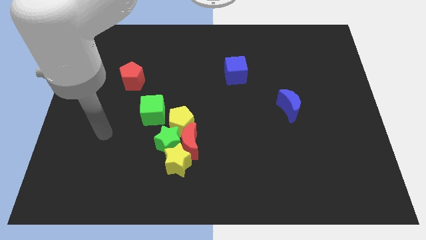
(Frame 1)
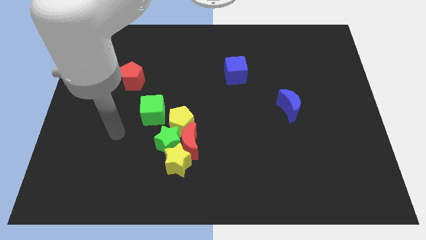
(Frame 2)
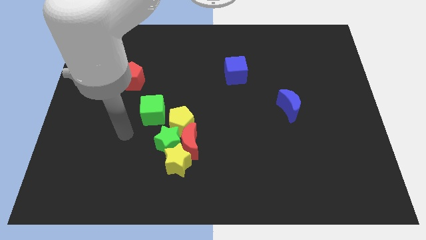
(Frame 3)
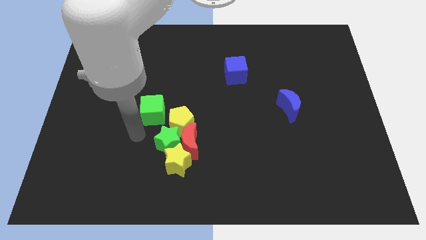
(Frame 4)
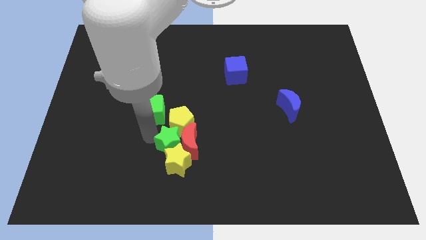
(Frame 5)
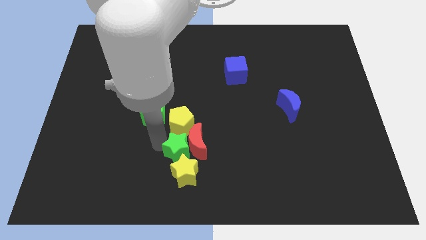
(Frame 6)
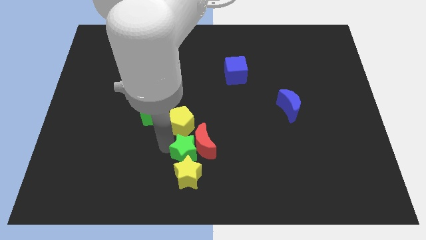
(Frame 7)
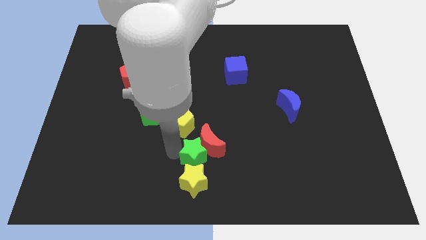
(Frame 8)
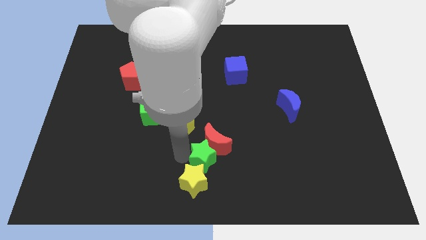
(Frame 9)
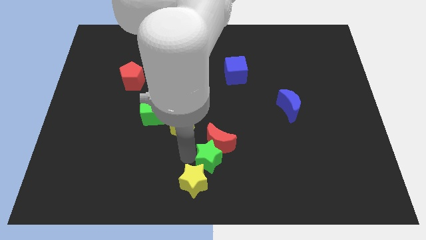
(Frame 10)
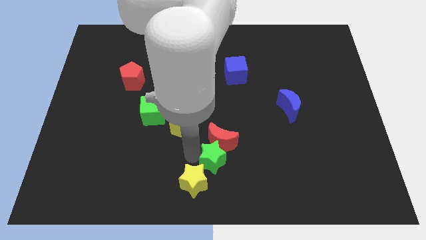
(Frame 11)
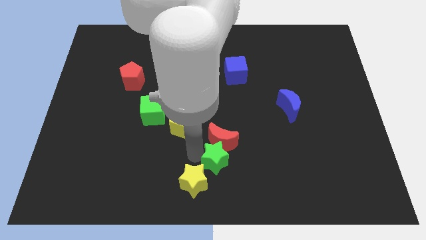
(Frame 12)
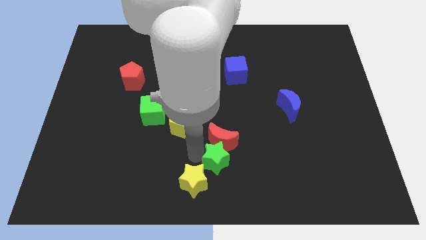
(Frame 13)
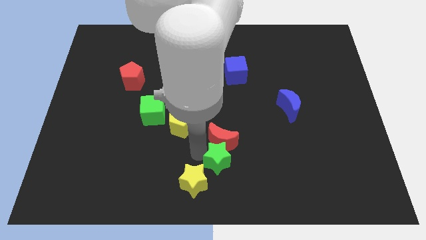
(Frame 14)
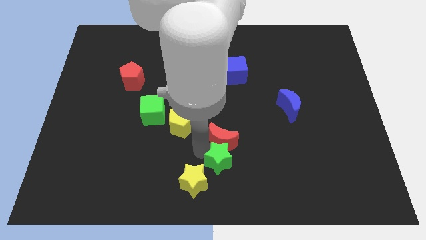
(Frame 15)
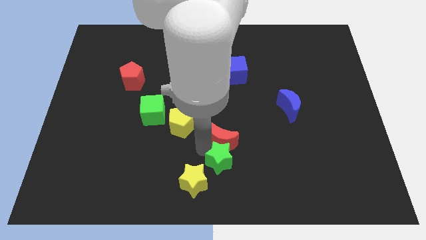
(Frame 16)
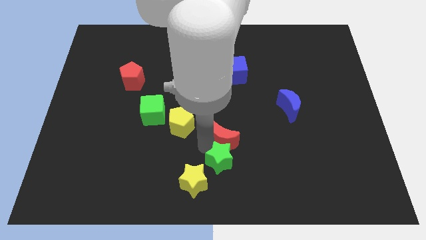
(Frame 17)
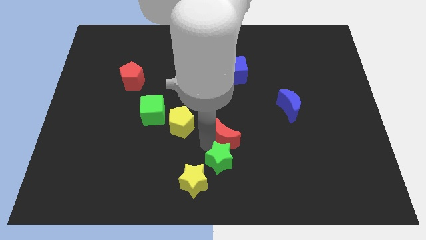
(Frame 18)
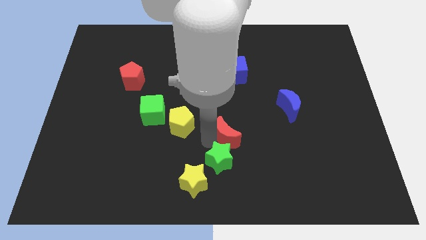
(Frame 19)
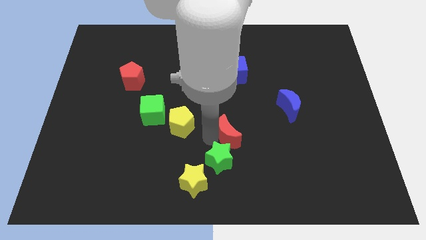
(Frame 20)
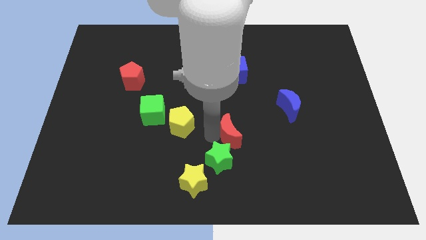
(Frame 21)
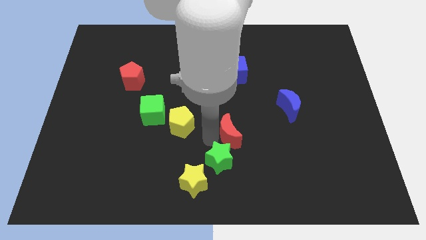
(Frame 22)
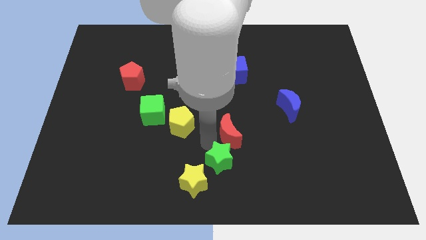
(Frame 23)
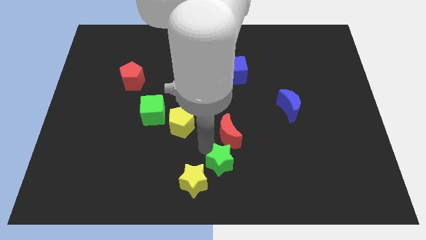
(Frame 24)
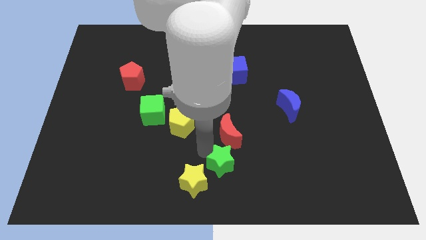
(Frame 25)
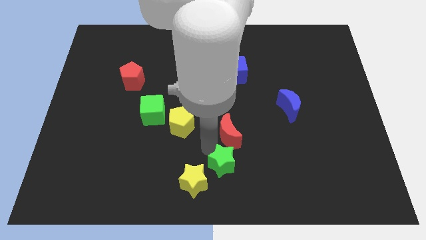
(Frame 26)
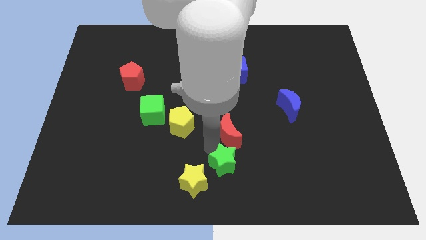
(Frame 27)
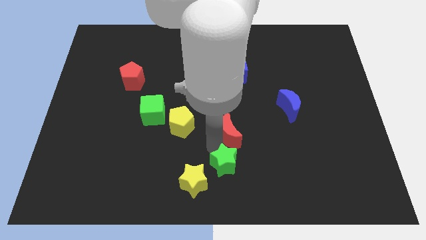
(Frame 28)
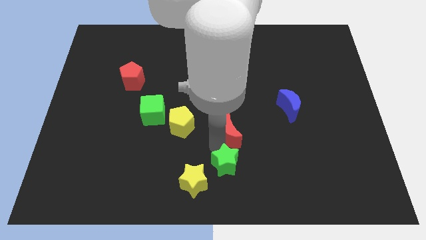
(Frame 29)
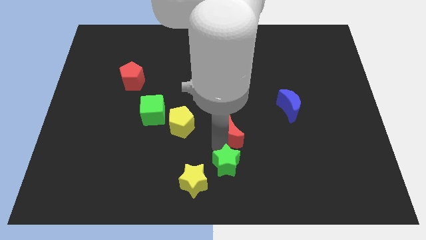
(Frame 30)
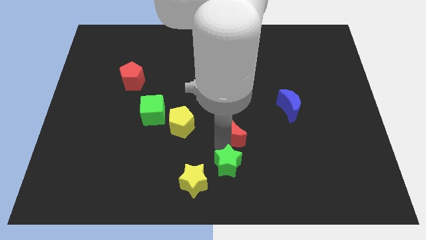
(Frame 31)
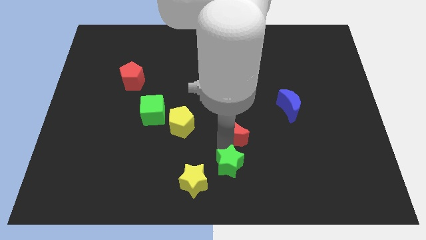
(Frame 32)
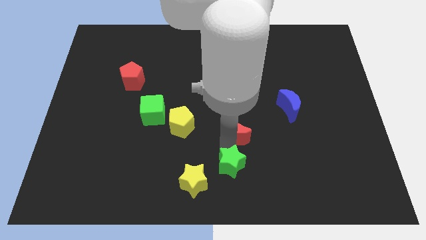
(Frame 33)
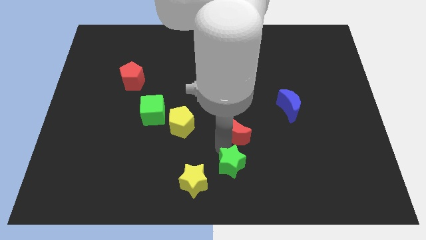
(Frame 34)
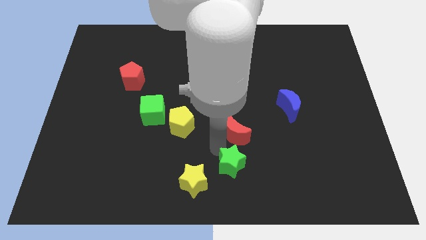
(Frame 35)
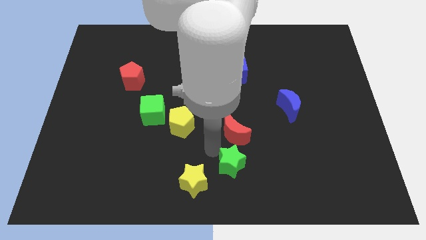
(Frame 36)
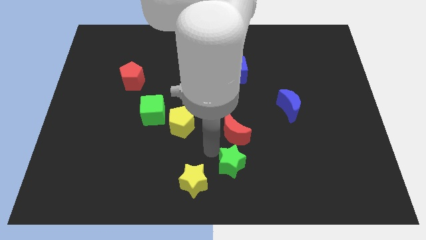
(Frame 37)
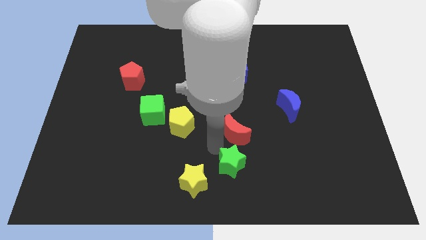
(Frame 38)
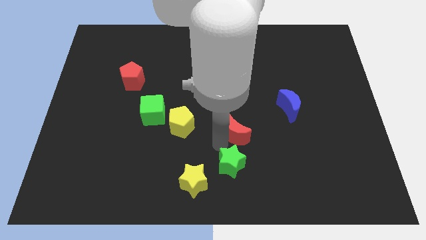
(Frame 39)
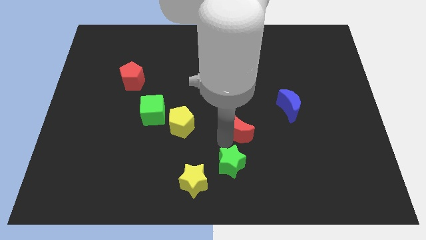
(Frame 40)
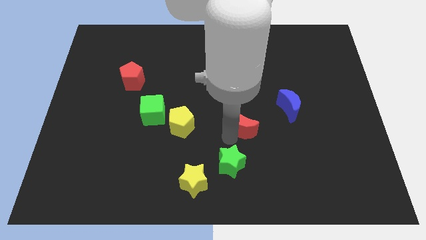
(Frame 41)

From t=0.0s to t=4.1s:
pull the red moon apart from the group of blocks

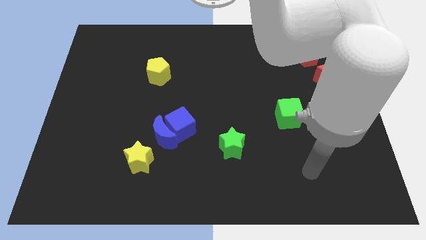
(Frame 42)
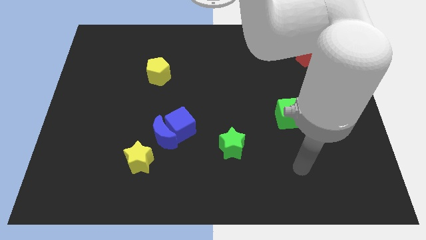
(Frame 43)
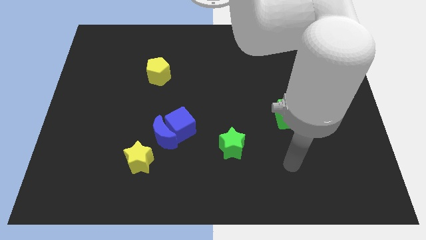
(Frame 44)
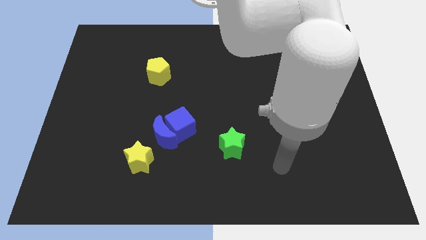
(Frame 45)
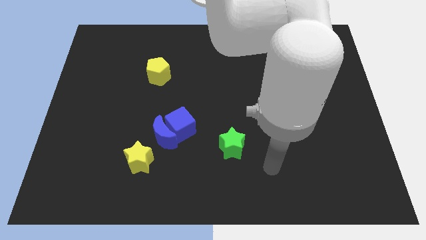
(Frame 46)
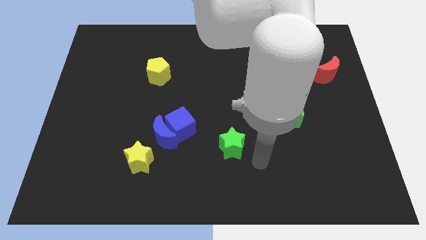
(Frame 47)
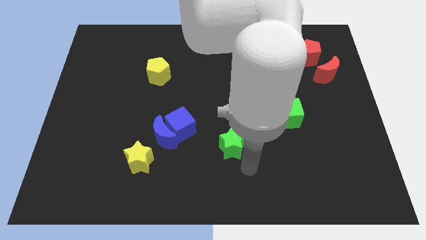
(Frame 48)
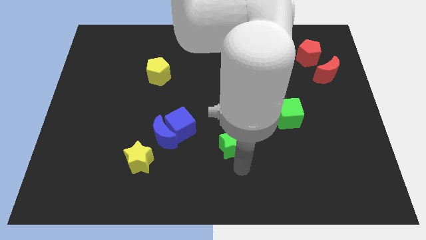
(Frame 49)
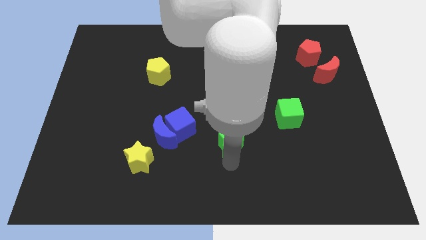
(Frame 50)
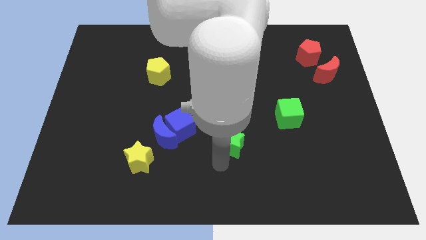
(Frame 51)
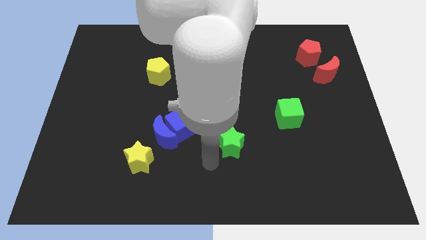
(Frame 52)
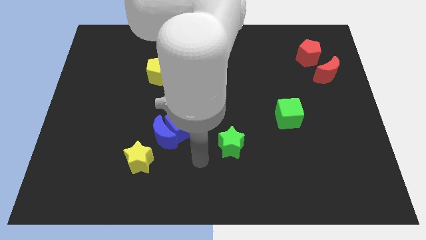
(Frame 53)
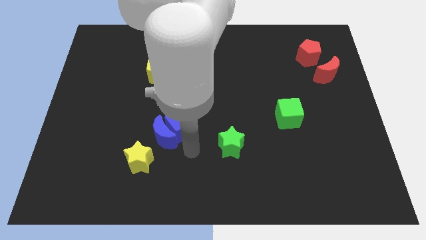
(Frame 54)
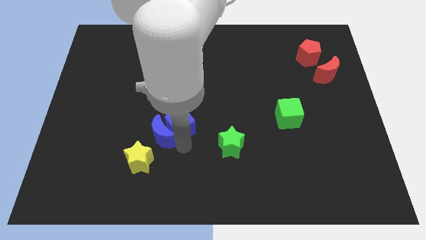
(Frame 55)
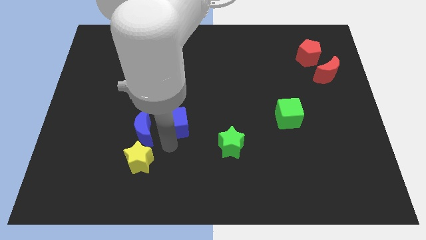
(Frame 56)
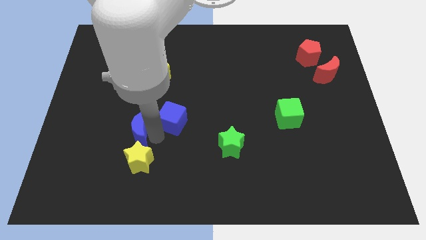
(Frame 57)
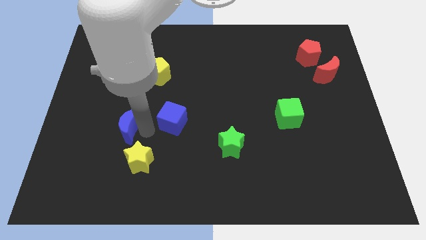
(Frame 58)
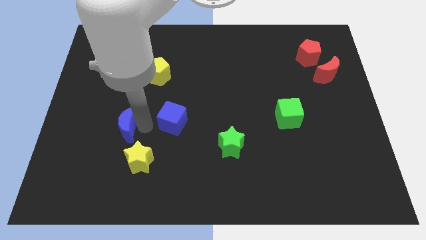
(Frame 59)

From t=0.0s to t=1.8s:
pull the blue cube apart from the blue moon

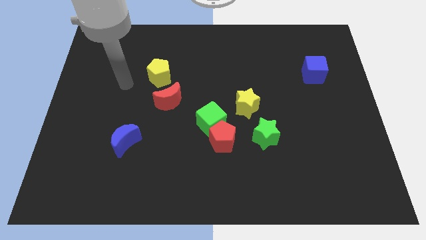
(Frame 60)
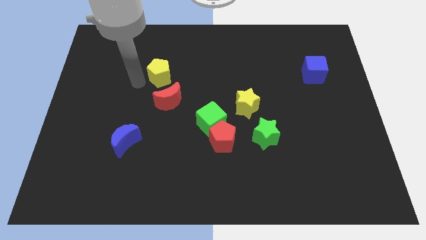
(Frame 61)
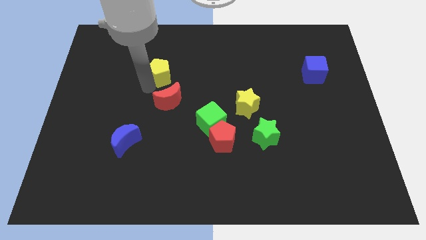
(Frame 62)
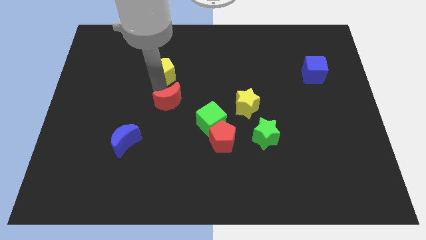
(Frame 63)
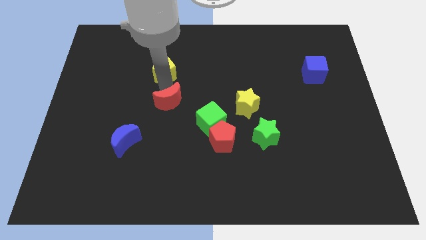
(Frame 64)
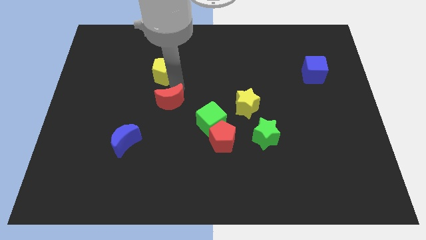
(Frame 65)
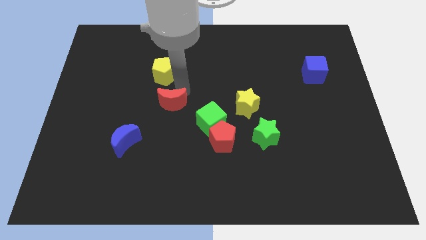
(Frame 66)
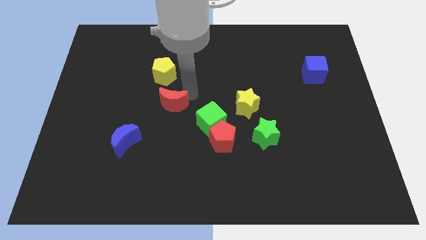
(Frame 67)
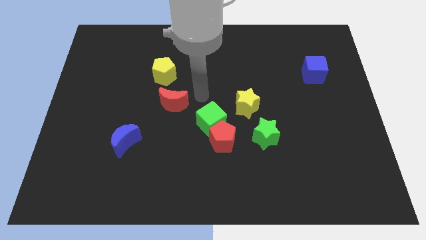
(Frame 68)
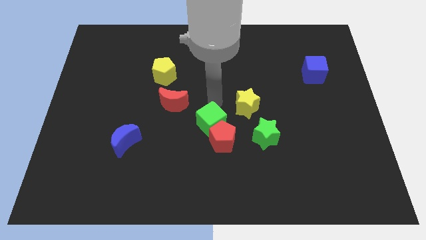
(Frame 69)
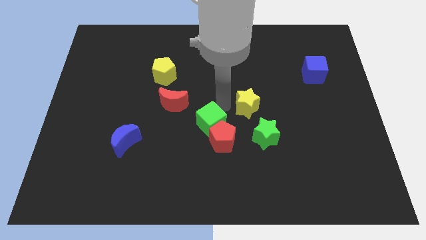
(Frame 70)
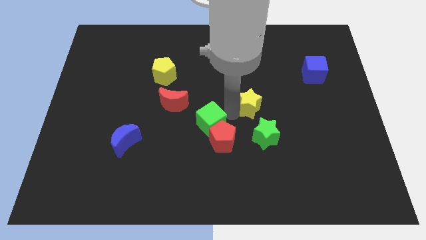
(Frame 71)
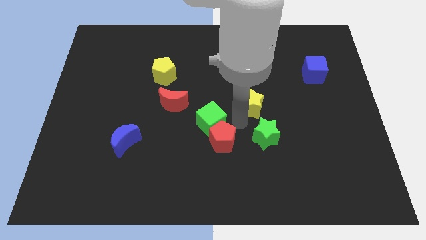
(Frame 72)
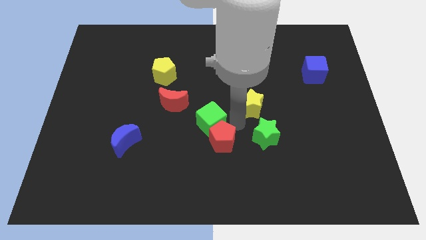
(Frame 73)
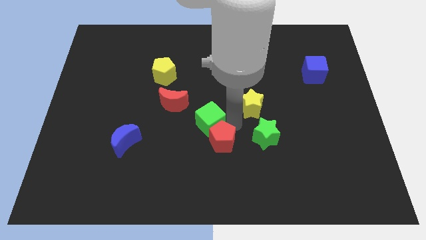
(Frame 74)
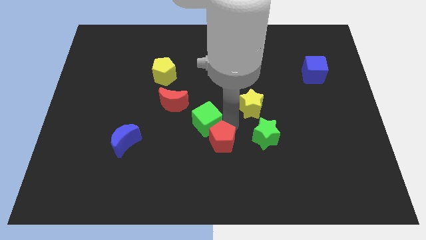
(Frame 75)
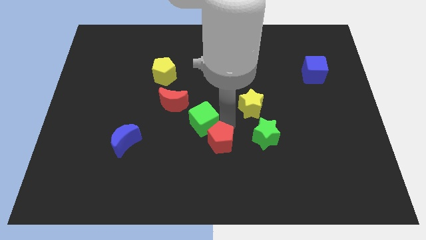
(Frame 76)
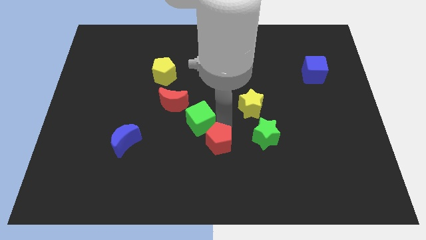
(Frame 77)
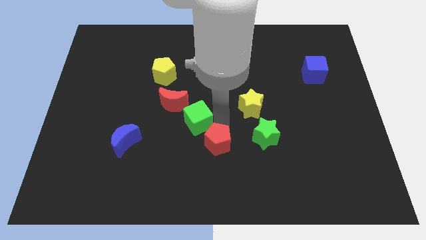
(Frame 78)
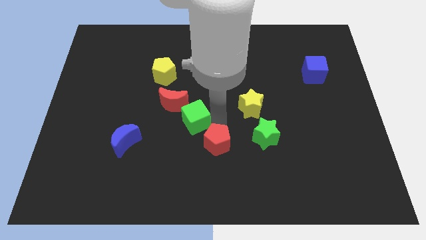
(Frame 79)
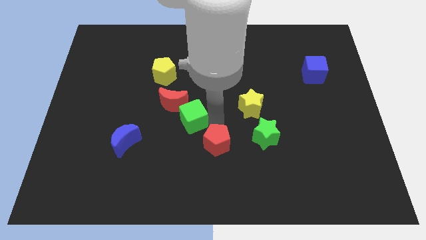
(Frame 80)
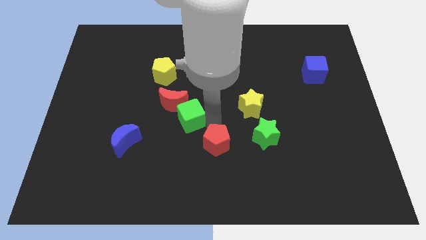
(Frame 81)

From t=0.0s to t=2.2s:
separate the green cube from the red pentagon and yellow star

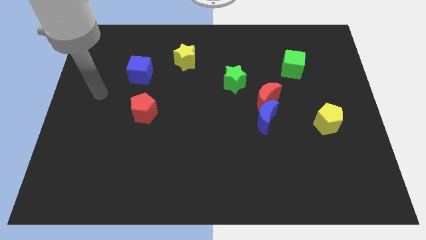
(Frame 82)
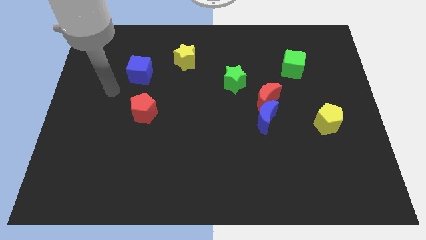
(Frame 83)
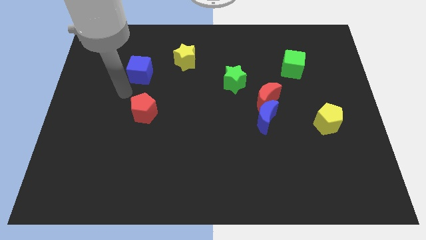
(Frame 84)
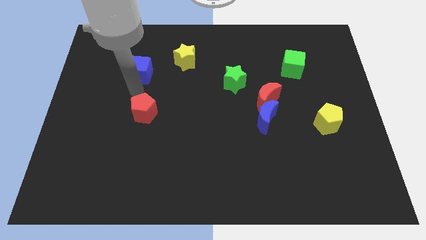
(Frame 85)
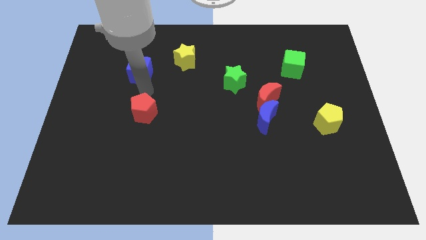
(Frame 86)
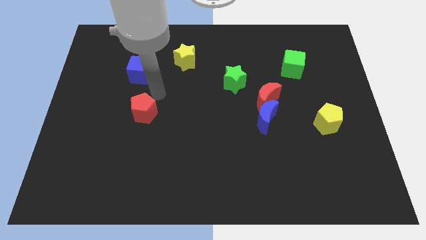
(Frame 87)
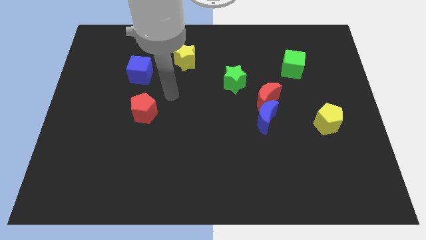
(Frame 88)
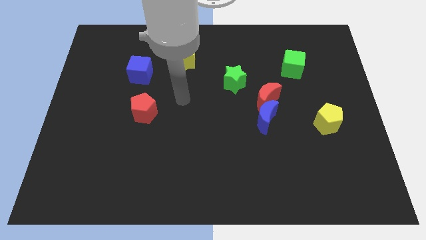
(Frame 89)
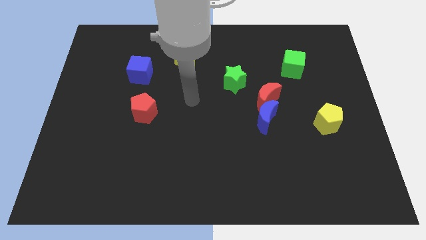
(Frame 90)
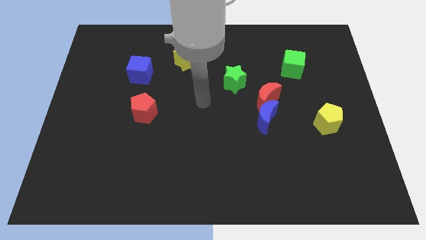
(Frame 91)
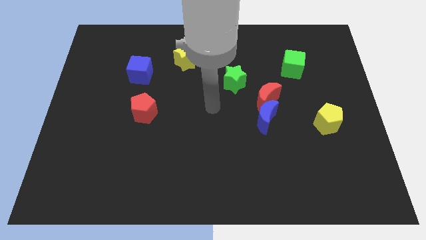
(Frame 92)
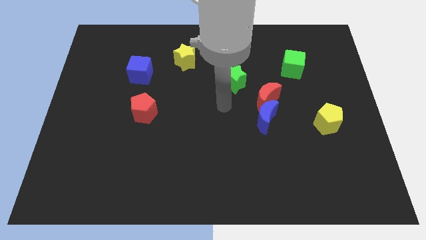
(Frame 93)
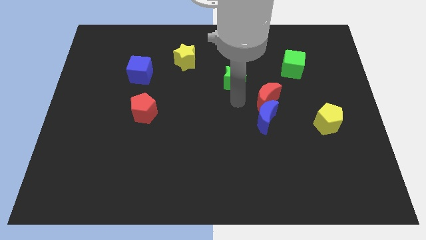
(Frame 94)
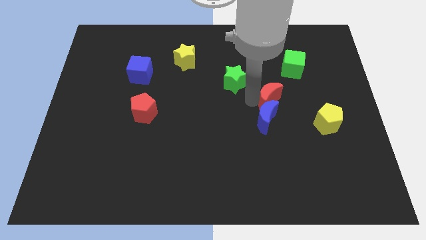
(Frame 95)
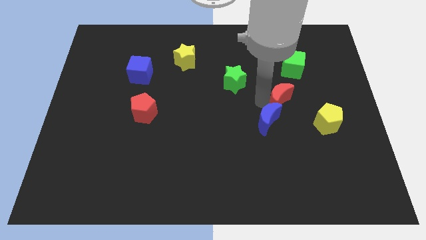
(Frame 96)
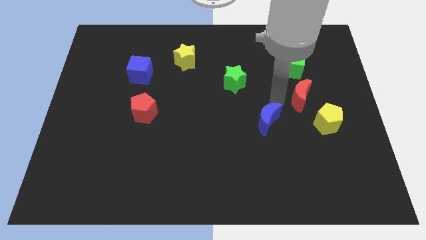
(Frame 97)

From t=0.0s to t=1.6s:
move the blue moon away from the red moon
